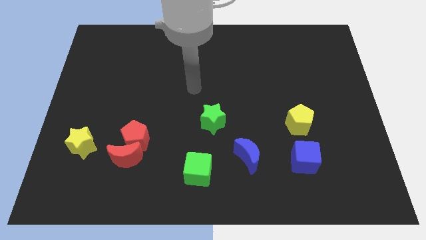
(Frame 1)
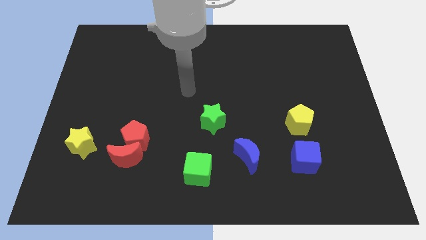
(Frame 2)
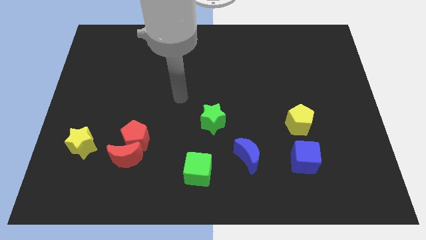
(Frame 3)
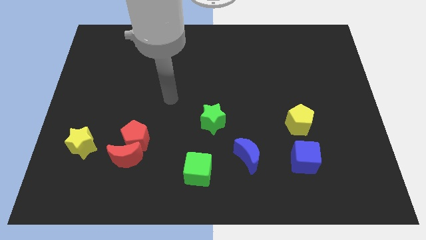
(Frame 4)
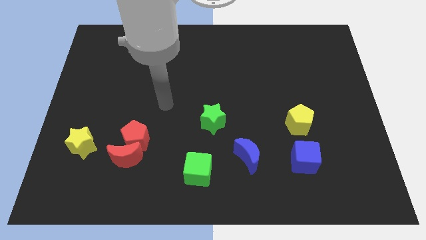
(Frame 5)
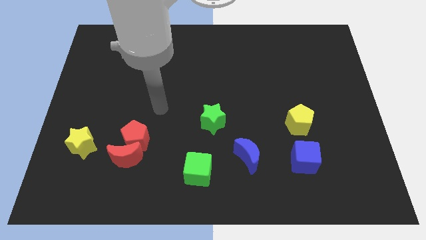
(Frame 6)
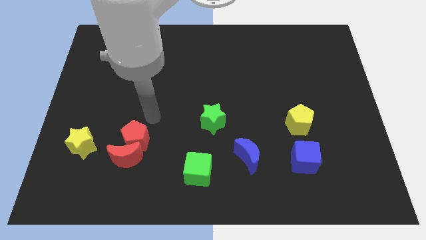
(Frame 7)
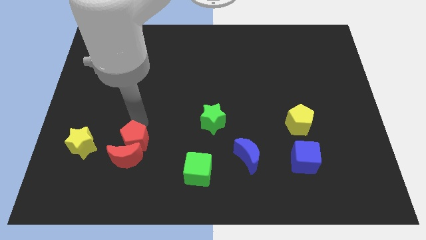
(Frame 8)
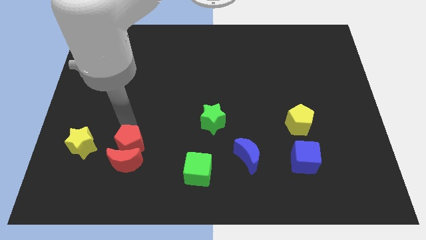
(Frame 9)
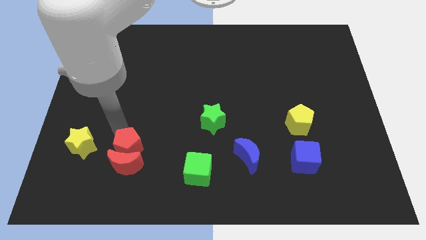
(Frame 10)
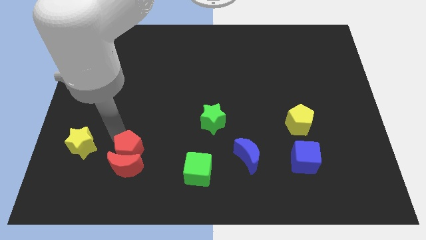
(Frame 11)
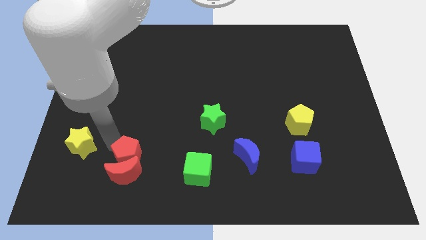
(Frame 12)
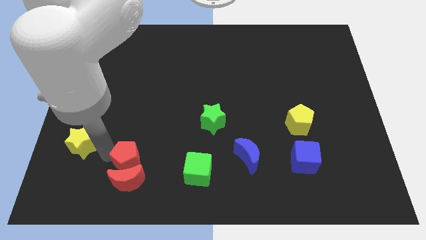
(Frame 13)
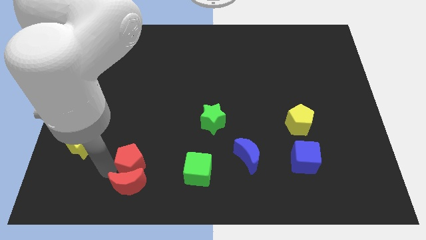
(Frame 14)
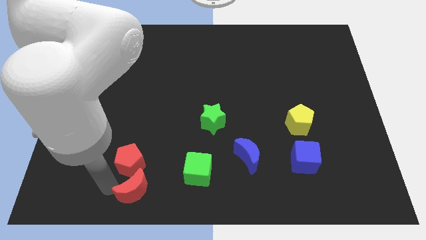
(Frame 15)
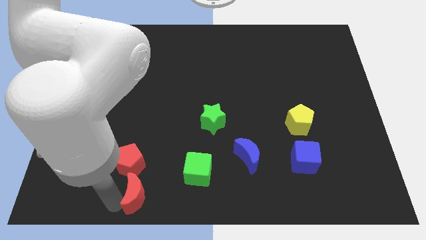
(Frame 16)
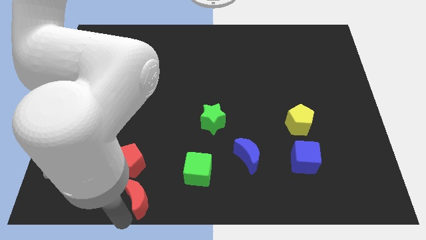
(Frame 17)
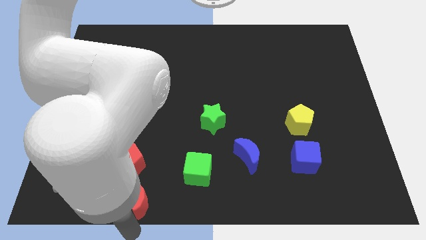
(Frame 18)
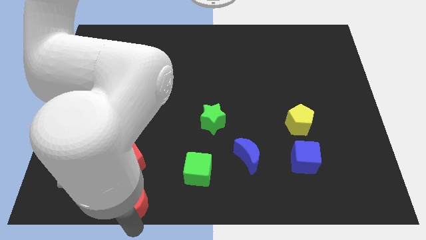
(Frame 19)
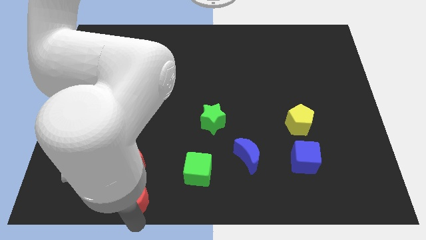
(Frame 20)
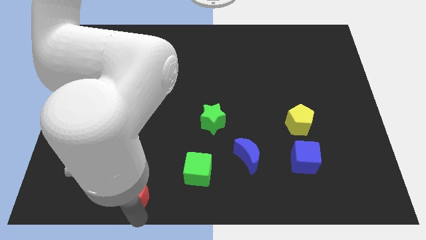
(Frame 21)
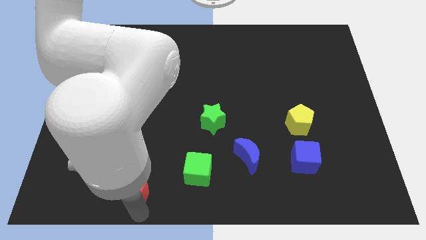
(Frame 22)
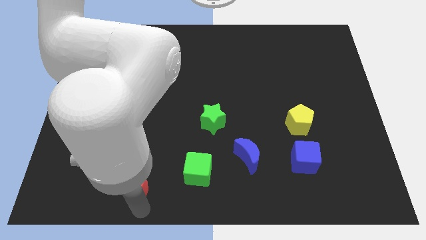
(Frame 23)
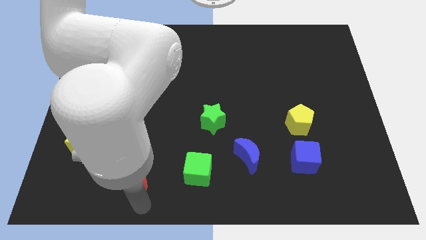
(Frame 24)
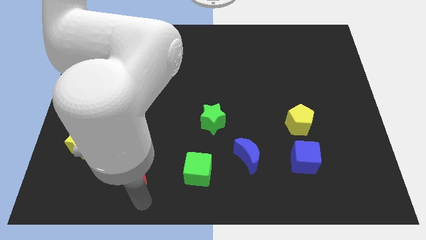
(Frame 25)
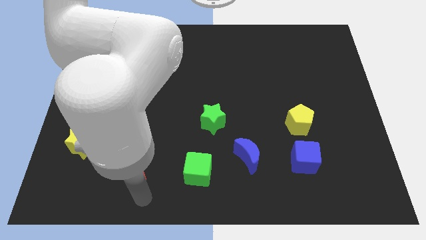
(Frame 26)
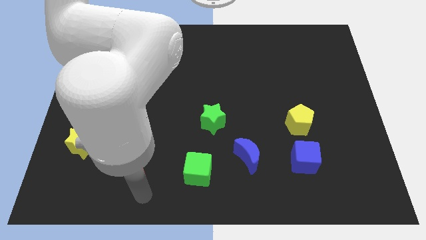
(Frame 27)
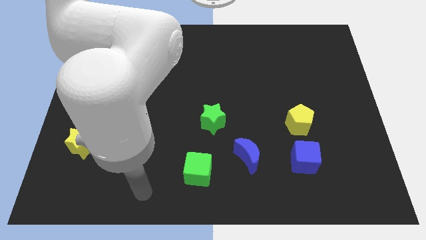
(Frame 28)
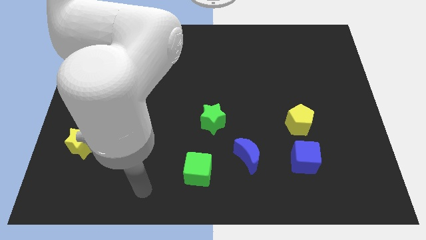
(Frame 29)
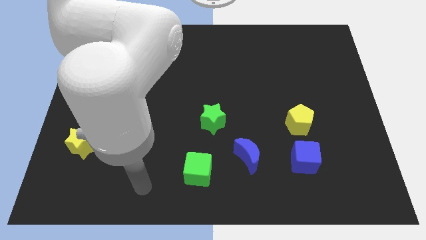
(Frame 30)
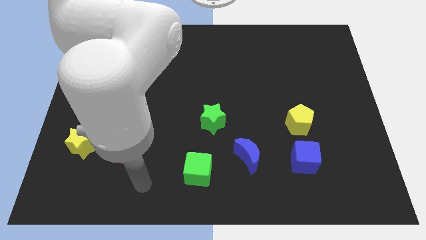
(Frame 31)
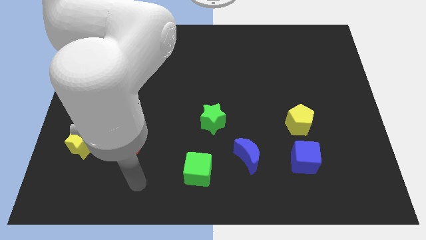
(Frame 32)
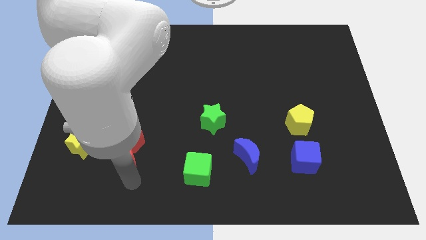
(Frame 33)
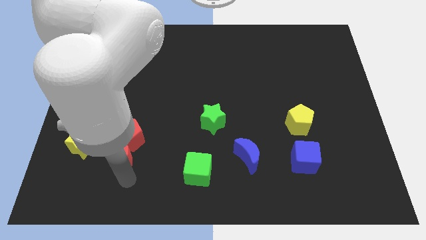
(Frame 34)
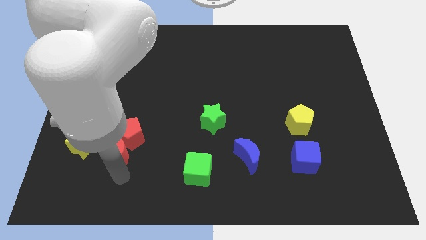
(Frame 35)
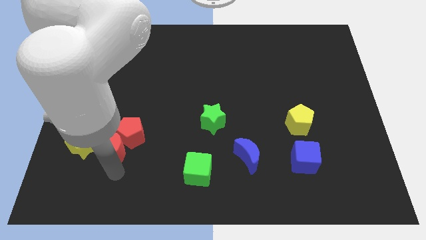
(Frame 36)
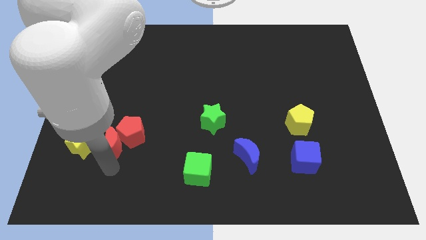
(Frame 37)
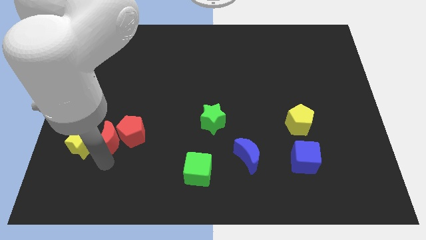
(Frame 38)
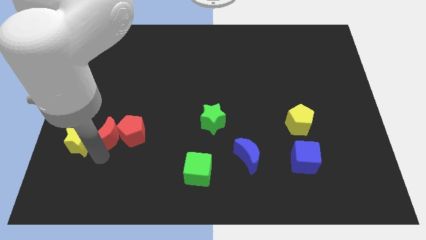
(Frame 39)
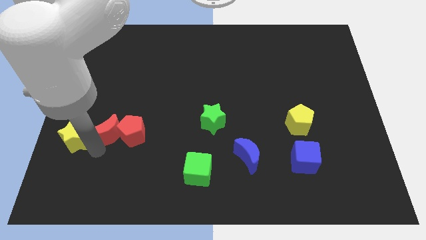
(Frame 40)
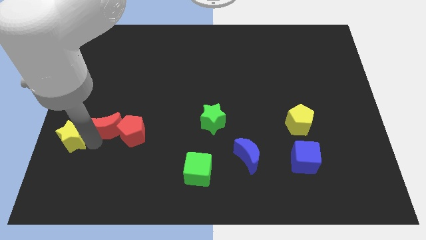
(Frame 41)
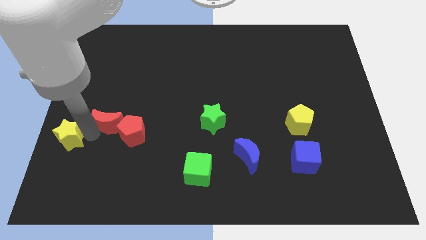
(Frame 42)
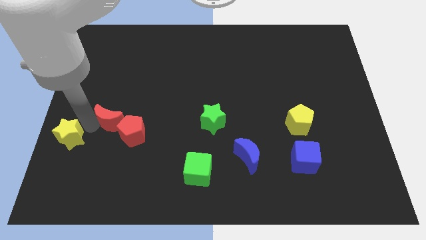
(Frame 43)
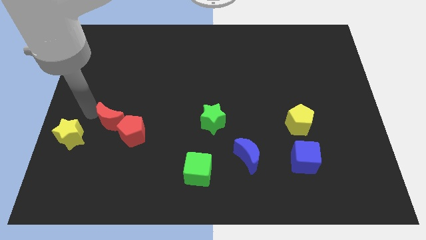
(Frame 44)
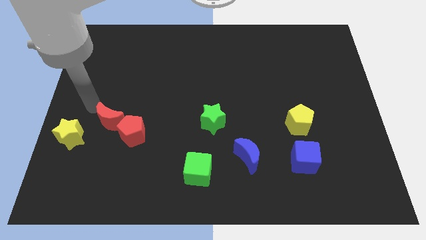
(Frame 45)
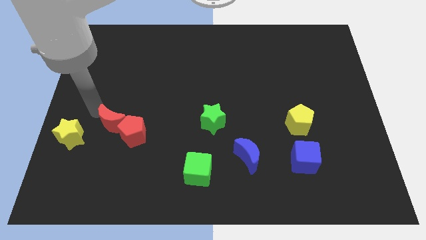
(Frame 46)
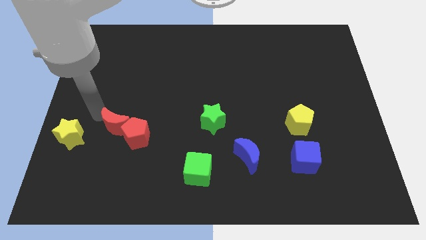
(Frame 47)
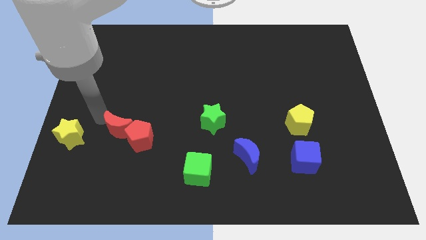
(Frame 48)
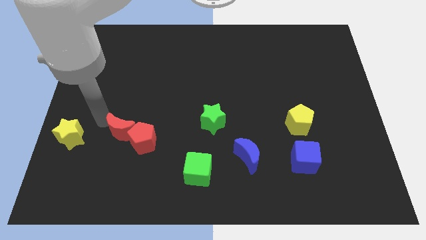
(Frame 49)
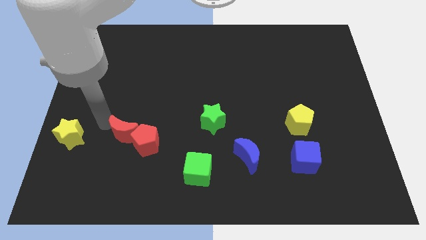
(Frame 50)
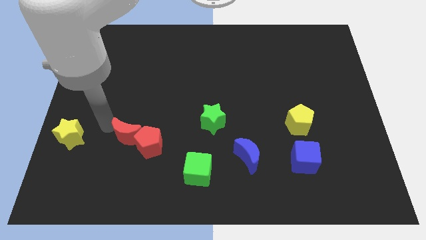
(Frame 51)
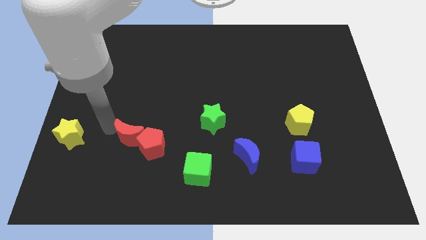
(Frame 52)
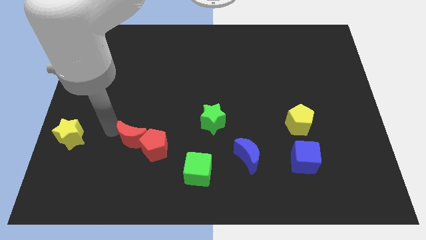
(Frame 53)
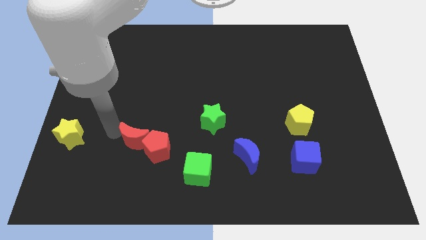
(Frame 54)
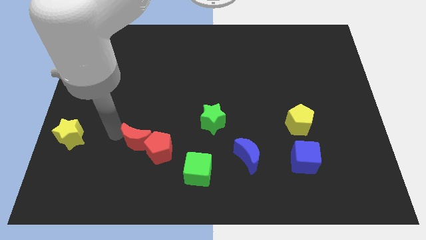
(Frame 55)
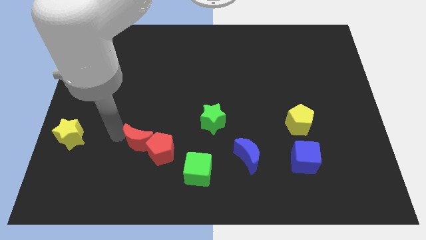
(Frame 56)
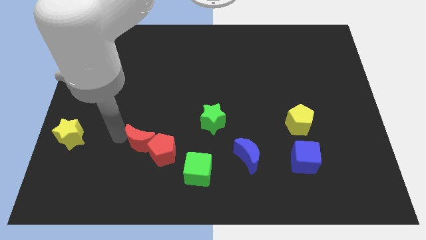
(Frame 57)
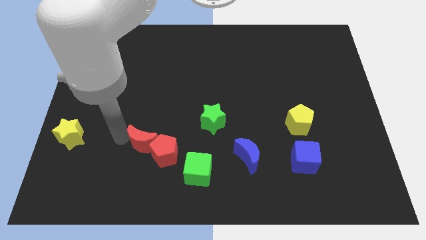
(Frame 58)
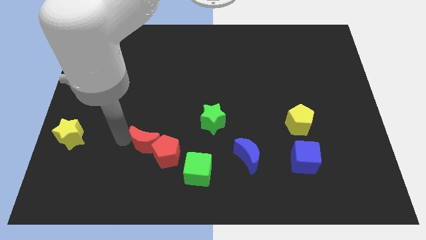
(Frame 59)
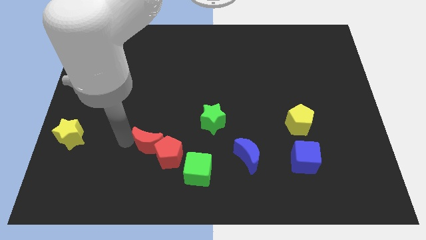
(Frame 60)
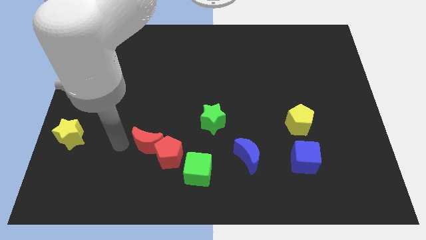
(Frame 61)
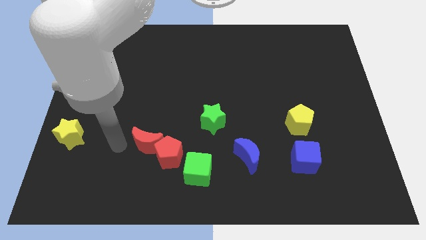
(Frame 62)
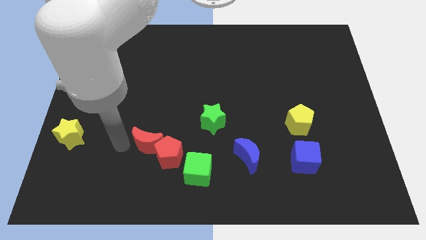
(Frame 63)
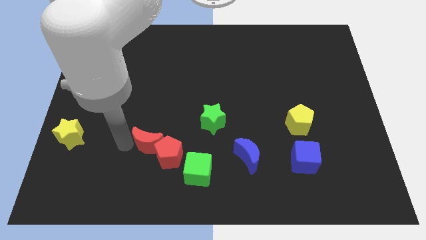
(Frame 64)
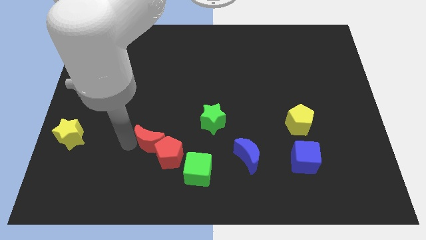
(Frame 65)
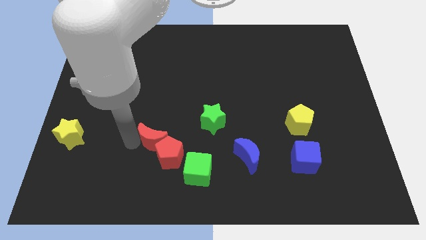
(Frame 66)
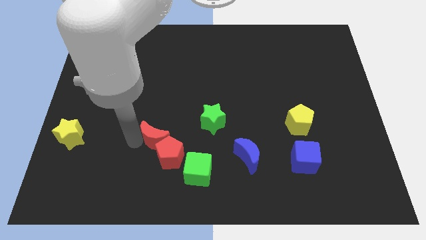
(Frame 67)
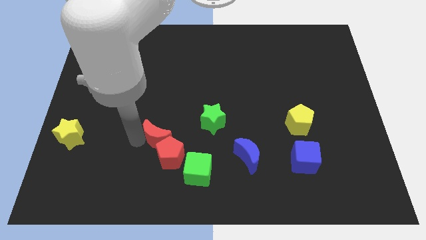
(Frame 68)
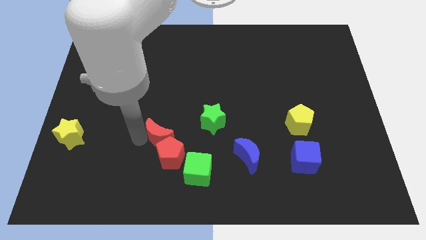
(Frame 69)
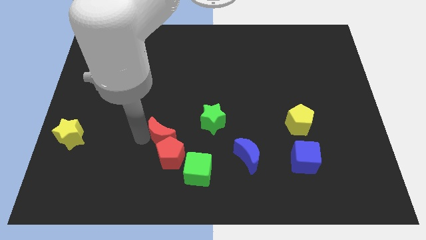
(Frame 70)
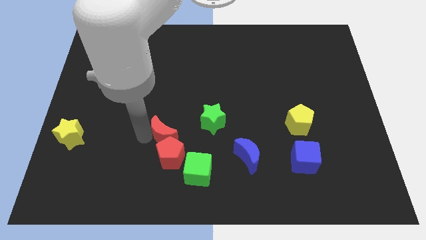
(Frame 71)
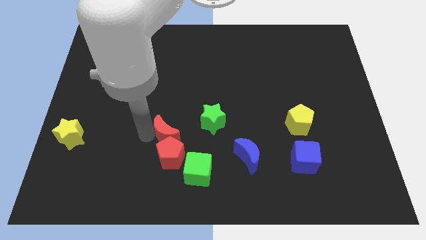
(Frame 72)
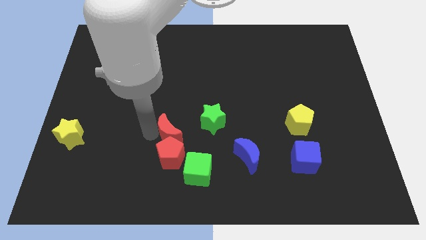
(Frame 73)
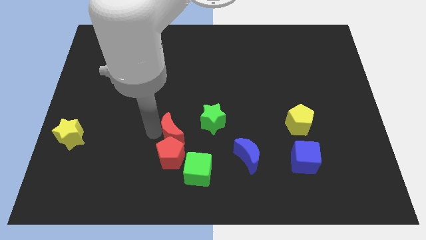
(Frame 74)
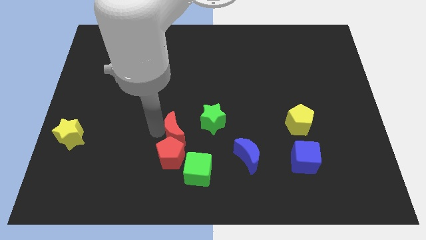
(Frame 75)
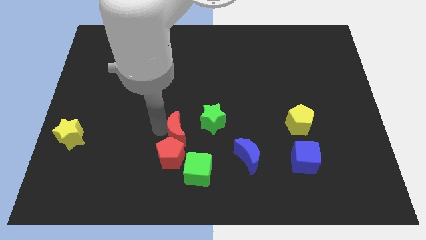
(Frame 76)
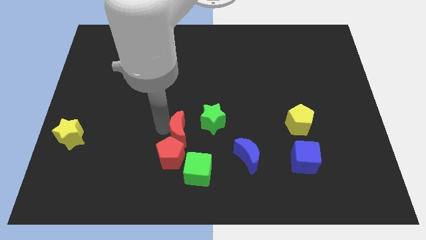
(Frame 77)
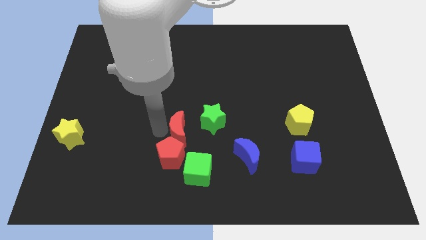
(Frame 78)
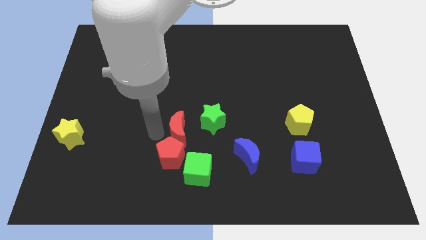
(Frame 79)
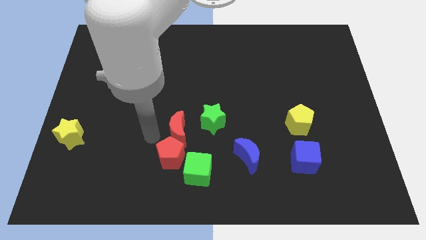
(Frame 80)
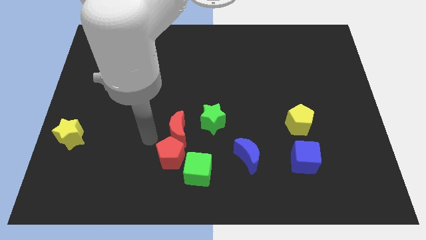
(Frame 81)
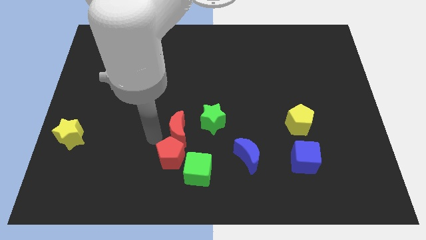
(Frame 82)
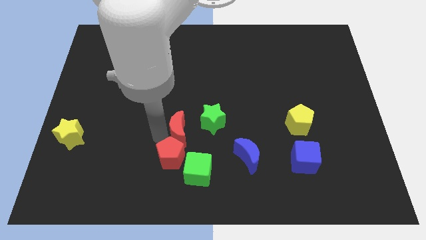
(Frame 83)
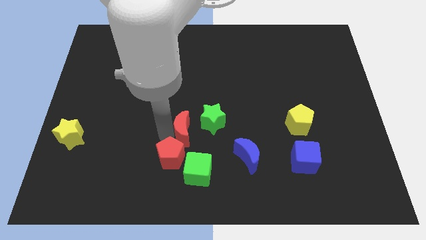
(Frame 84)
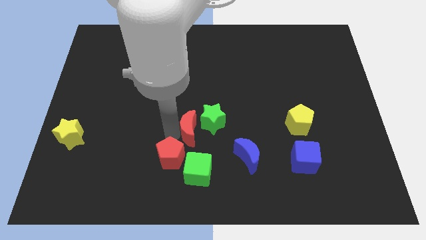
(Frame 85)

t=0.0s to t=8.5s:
push the red moon next to the green star
